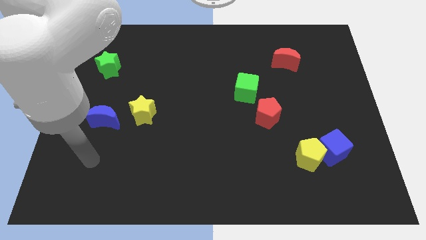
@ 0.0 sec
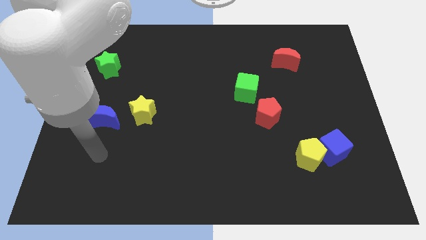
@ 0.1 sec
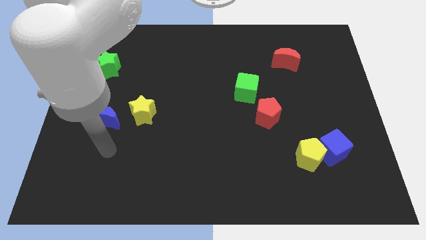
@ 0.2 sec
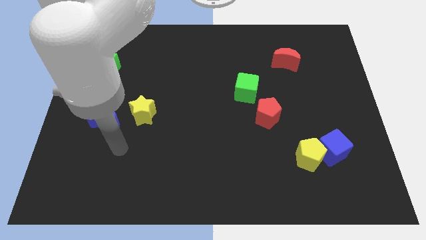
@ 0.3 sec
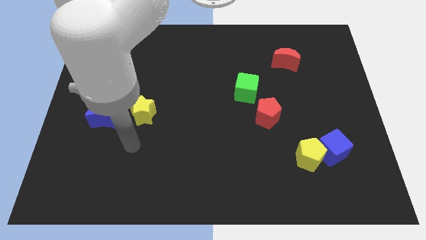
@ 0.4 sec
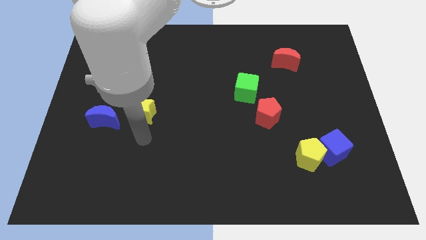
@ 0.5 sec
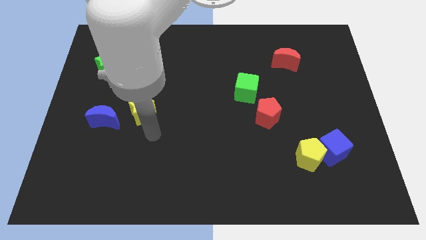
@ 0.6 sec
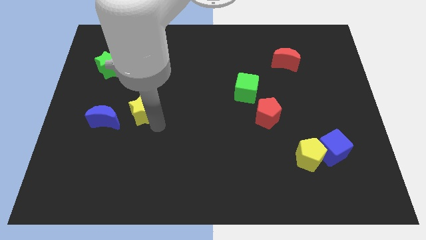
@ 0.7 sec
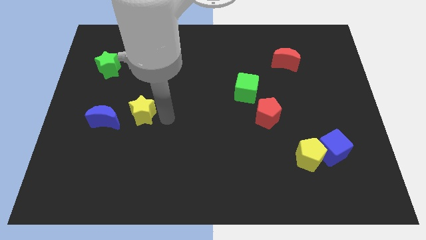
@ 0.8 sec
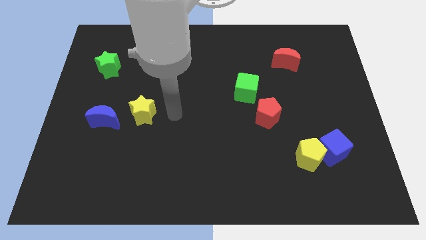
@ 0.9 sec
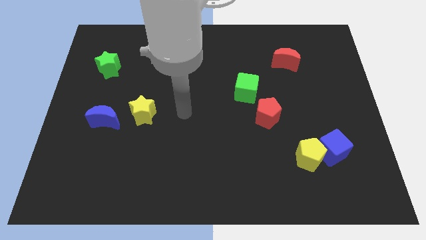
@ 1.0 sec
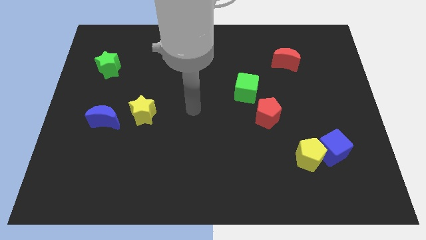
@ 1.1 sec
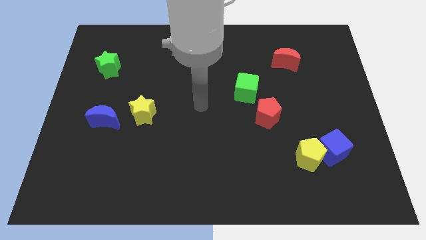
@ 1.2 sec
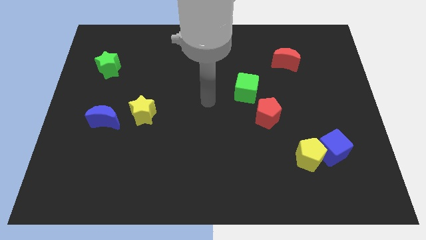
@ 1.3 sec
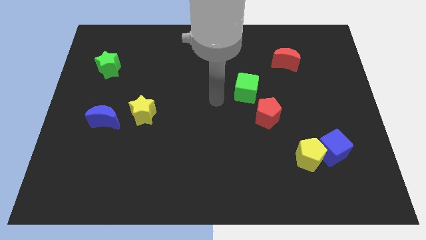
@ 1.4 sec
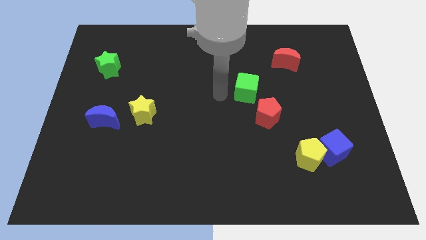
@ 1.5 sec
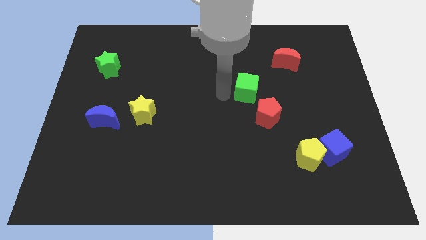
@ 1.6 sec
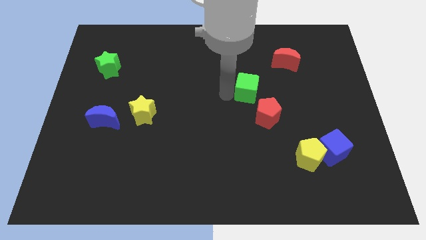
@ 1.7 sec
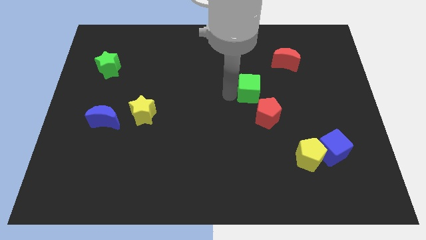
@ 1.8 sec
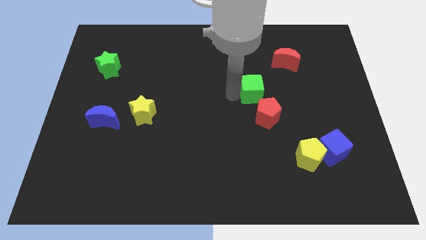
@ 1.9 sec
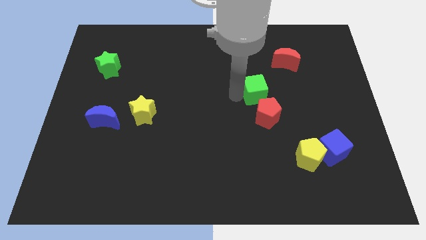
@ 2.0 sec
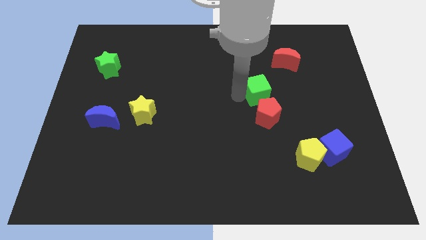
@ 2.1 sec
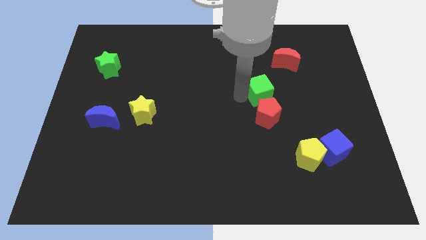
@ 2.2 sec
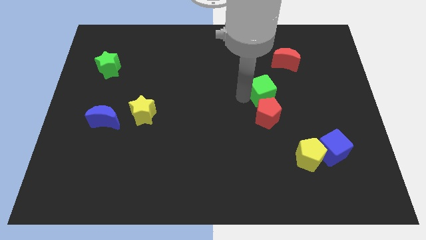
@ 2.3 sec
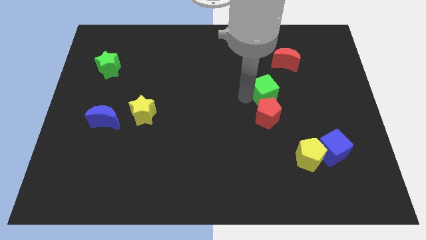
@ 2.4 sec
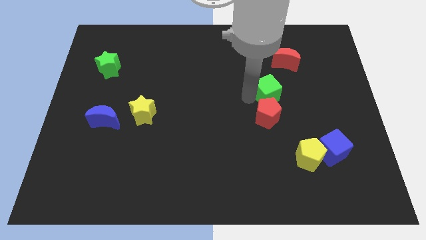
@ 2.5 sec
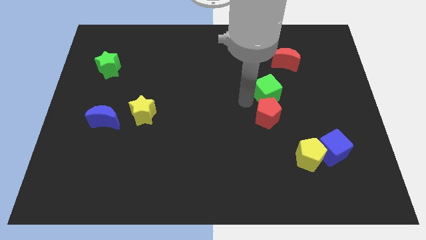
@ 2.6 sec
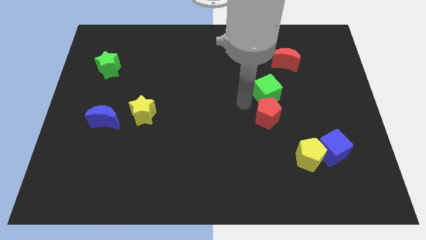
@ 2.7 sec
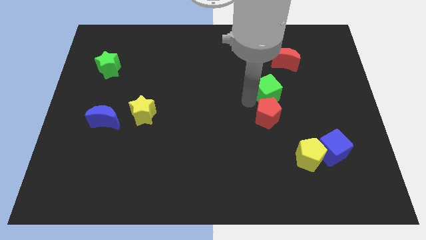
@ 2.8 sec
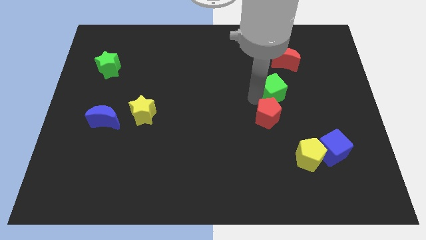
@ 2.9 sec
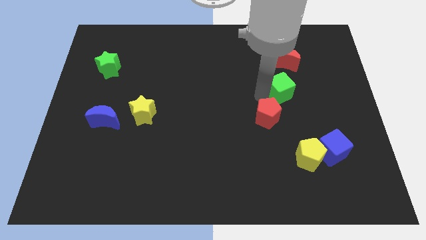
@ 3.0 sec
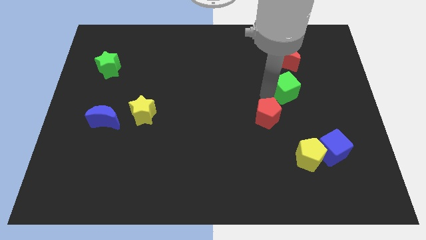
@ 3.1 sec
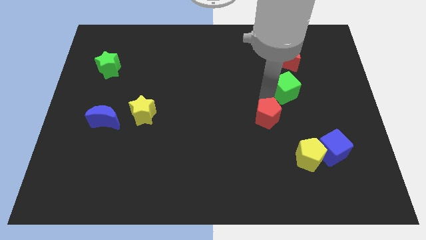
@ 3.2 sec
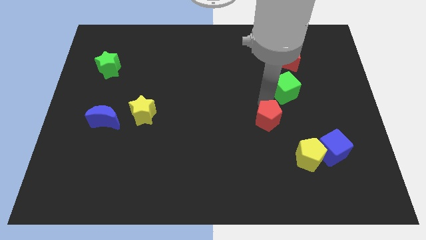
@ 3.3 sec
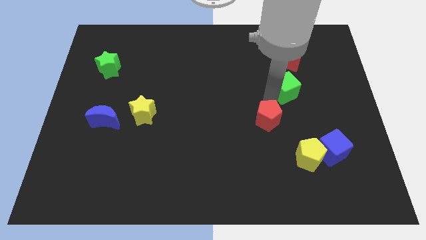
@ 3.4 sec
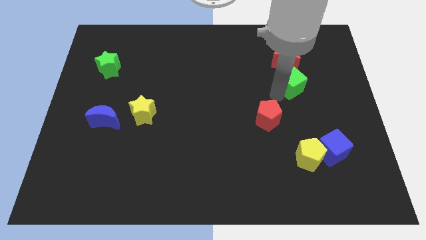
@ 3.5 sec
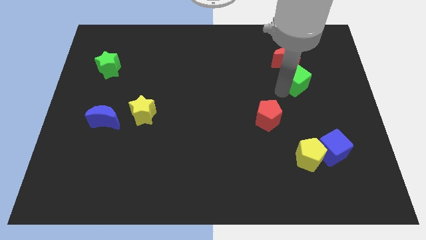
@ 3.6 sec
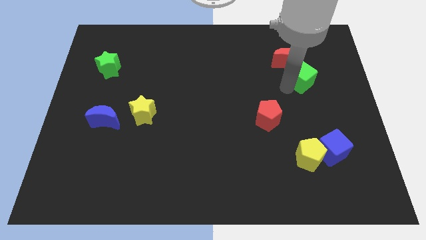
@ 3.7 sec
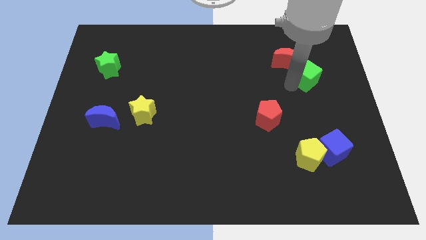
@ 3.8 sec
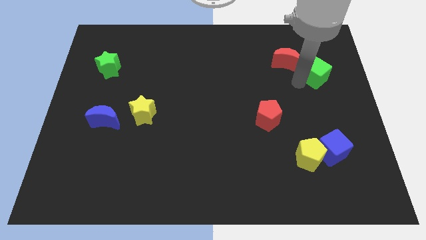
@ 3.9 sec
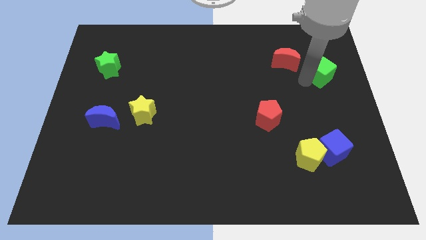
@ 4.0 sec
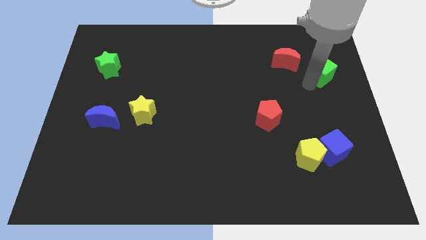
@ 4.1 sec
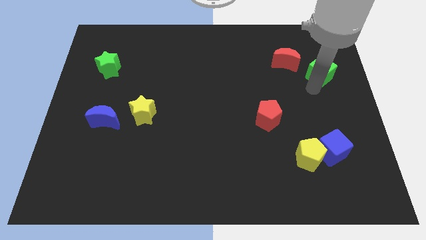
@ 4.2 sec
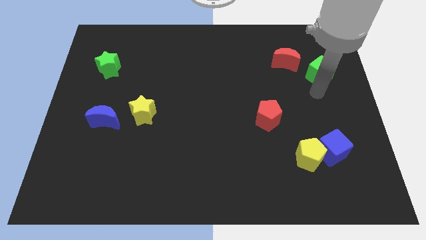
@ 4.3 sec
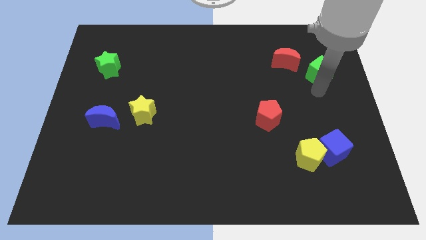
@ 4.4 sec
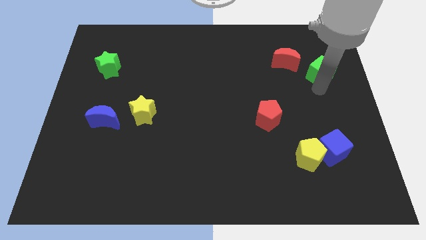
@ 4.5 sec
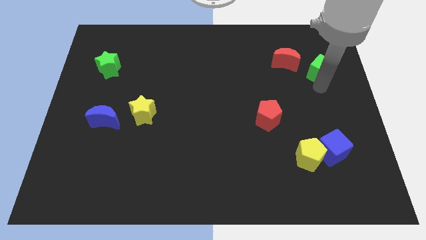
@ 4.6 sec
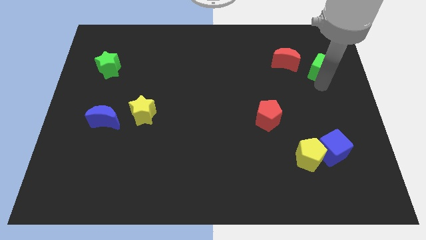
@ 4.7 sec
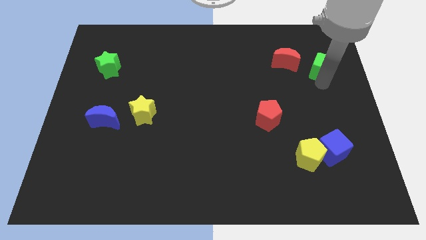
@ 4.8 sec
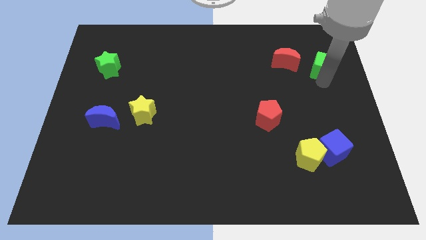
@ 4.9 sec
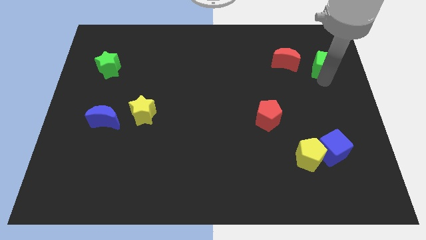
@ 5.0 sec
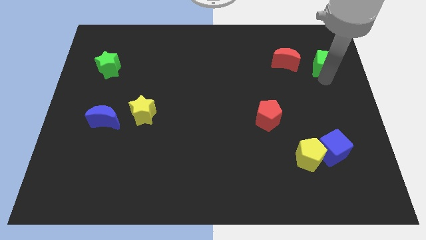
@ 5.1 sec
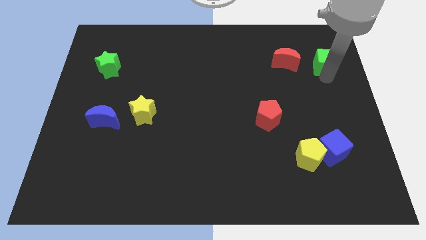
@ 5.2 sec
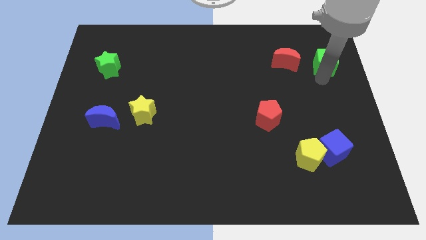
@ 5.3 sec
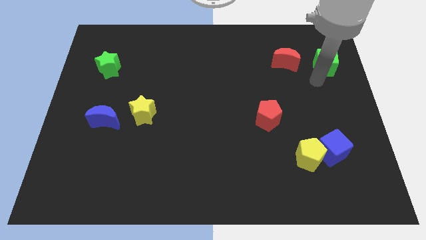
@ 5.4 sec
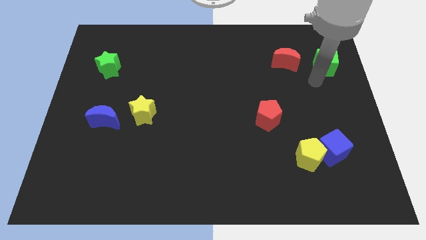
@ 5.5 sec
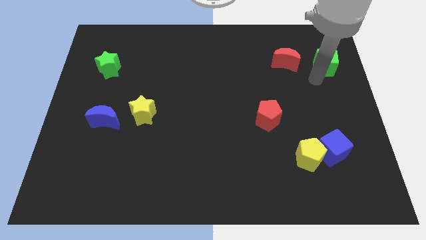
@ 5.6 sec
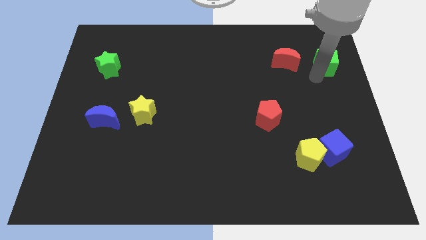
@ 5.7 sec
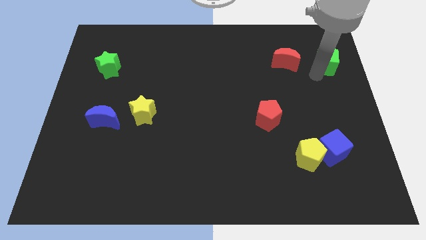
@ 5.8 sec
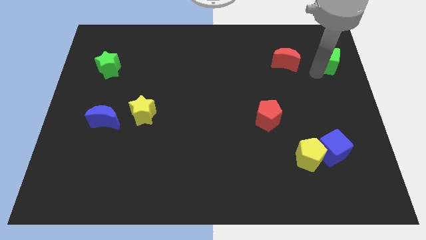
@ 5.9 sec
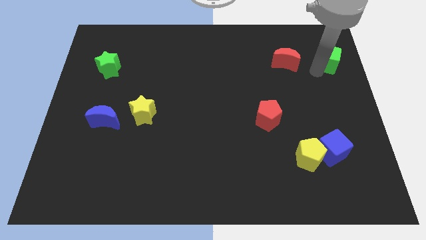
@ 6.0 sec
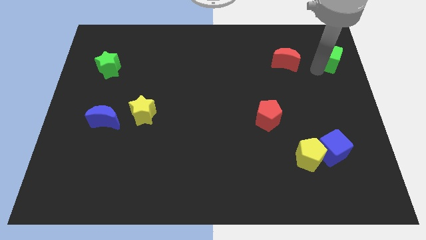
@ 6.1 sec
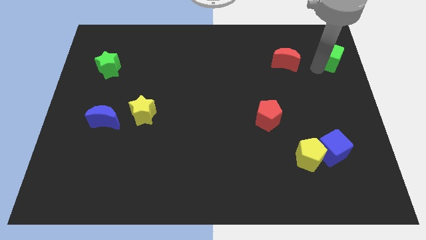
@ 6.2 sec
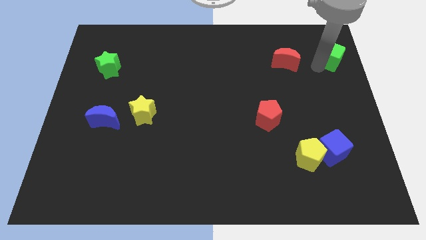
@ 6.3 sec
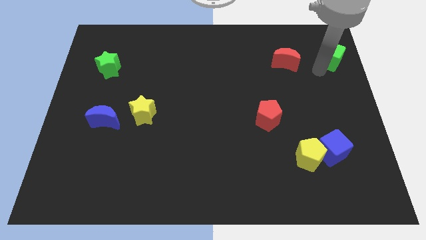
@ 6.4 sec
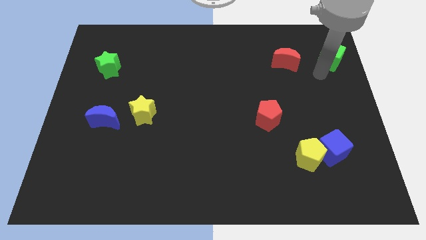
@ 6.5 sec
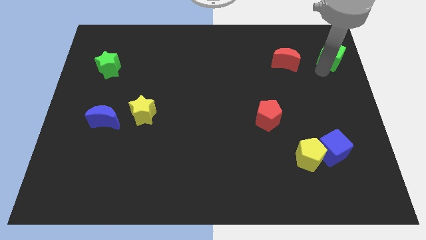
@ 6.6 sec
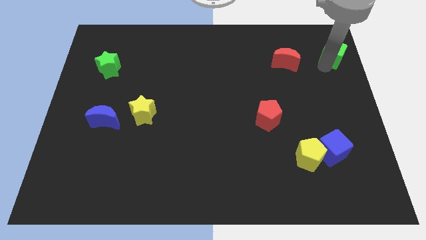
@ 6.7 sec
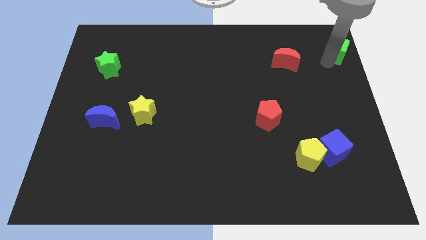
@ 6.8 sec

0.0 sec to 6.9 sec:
slide the green cube to the top right of the board

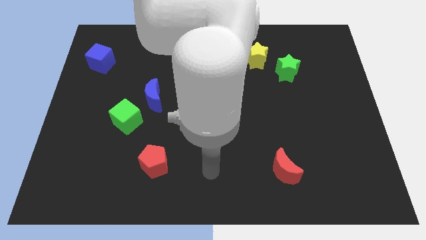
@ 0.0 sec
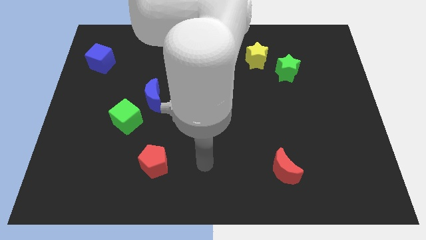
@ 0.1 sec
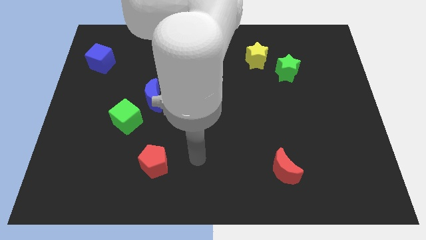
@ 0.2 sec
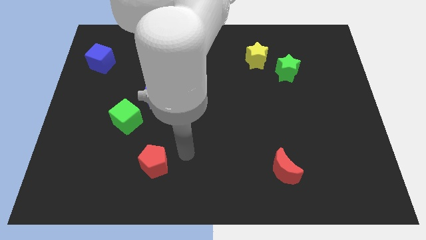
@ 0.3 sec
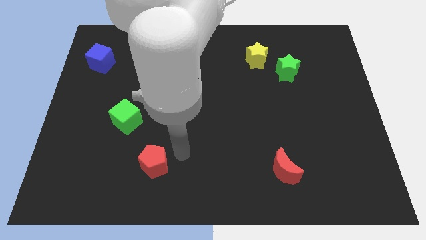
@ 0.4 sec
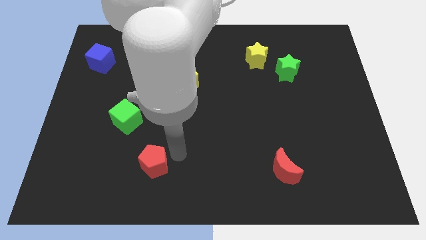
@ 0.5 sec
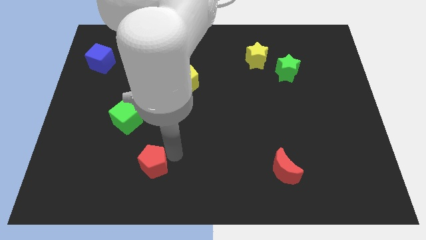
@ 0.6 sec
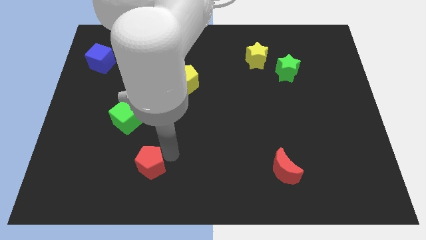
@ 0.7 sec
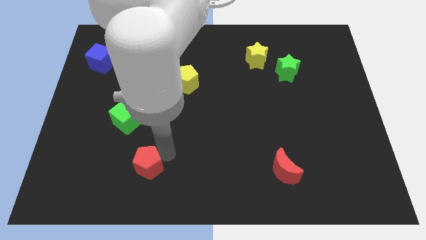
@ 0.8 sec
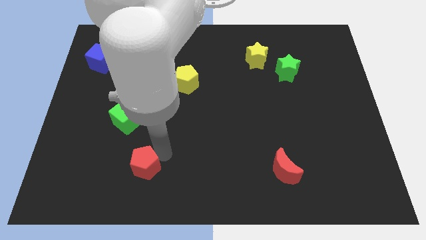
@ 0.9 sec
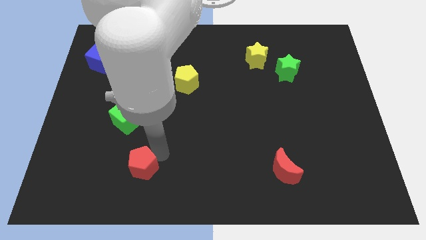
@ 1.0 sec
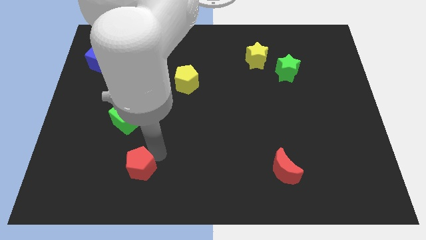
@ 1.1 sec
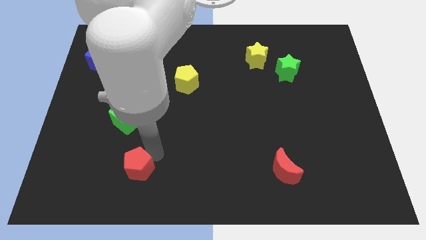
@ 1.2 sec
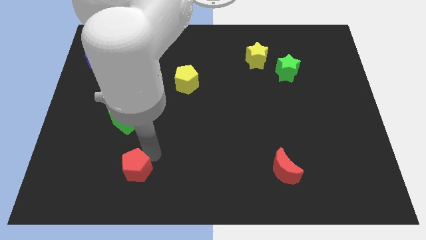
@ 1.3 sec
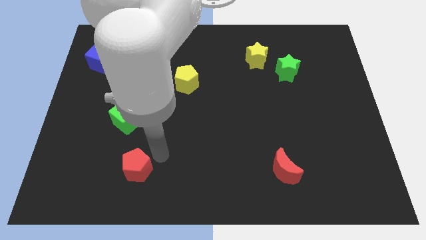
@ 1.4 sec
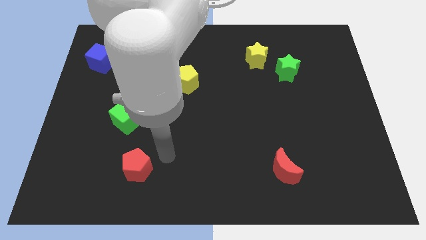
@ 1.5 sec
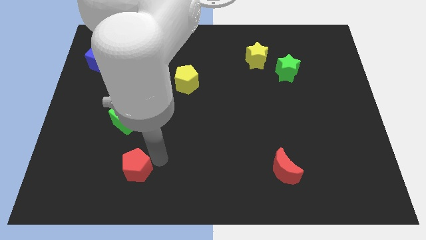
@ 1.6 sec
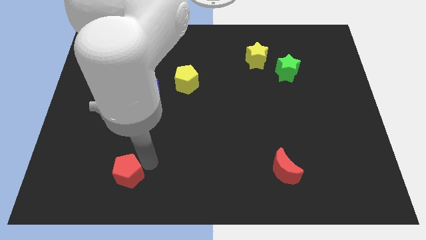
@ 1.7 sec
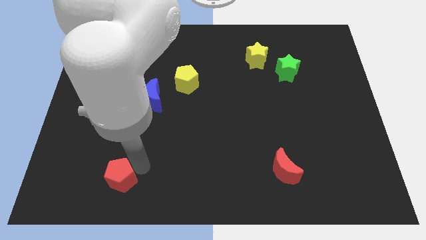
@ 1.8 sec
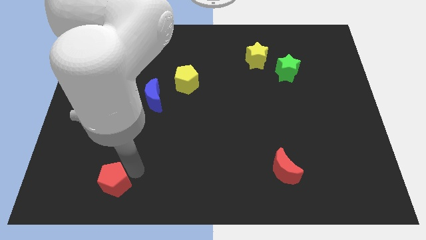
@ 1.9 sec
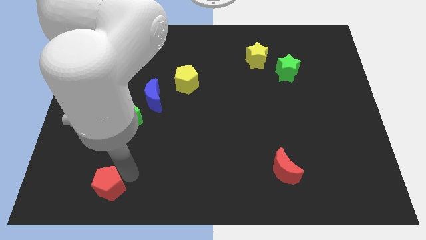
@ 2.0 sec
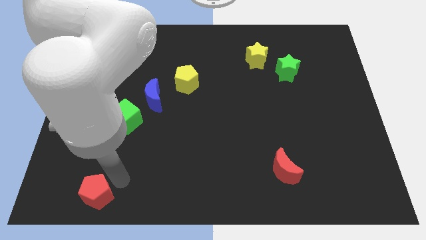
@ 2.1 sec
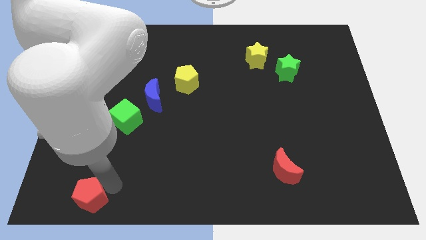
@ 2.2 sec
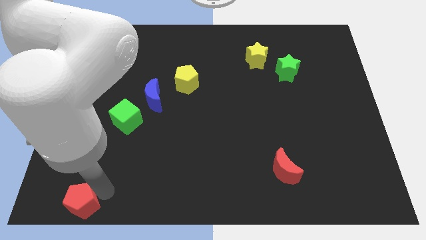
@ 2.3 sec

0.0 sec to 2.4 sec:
push the red pentagon to the bottom left
